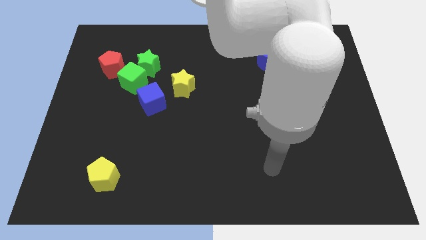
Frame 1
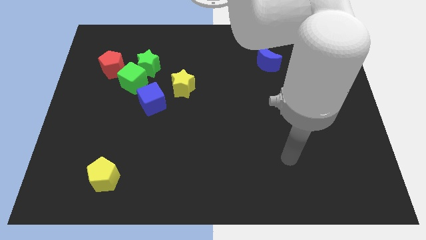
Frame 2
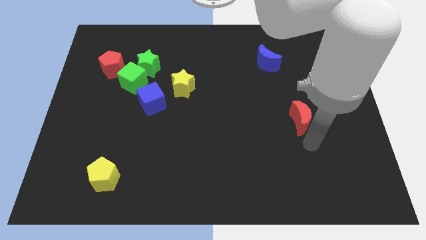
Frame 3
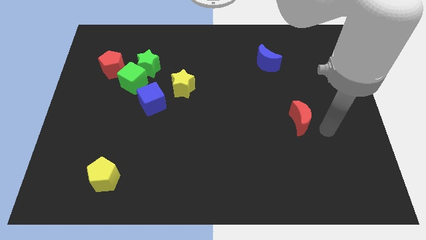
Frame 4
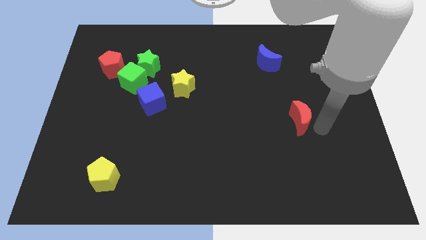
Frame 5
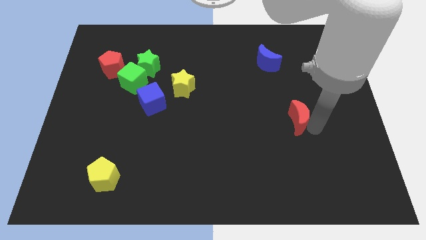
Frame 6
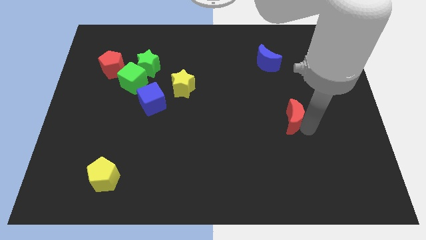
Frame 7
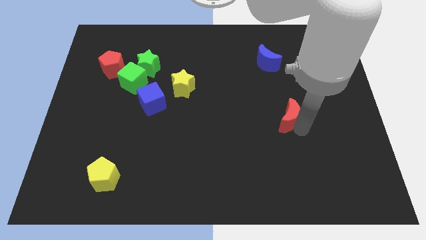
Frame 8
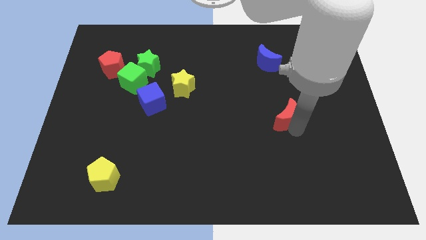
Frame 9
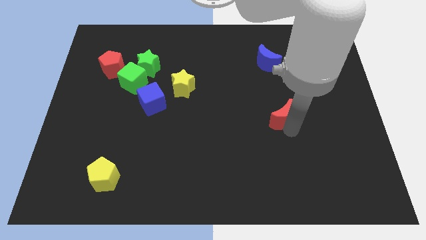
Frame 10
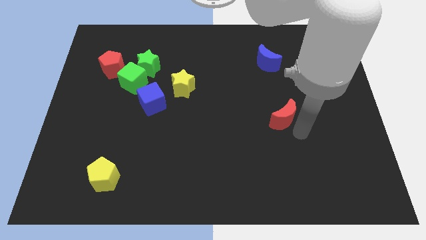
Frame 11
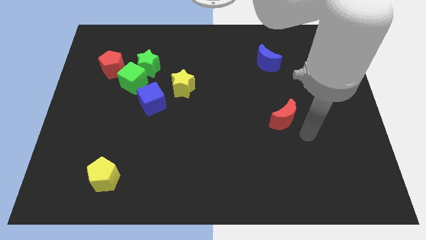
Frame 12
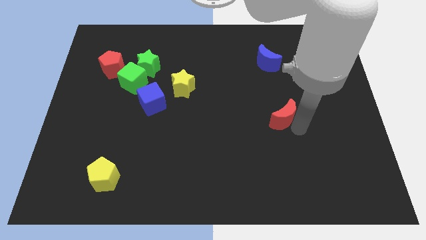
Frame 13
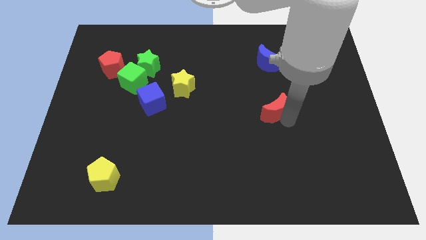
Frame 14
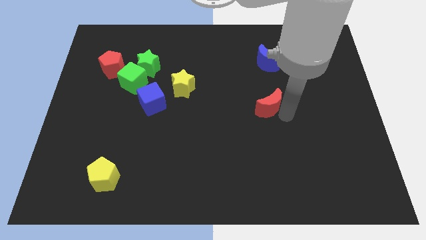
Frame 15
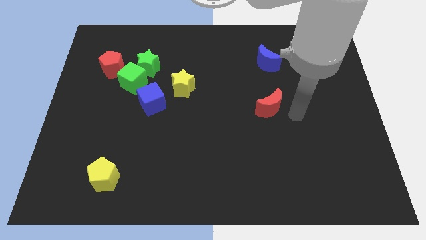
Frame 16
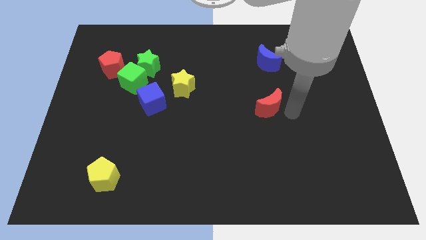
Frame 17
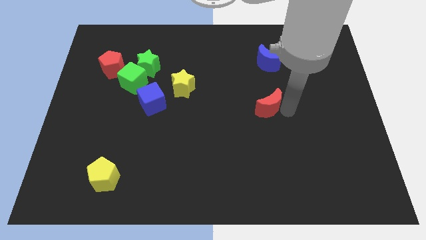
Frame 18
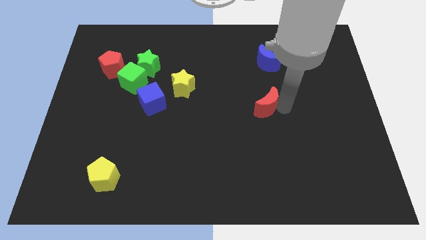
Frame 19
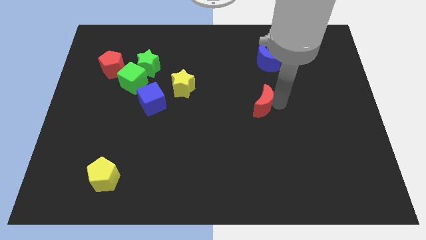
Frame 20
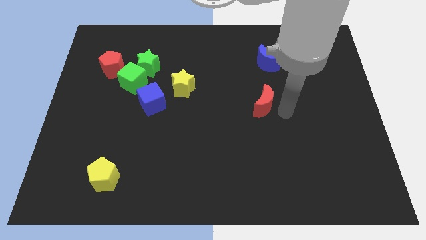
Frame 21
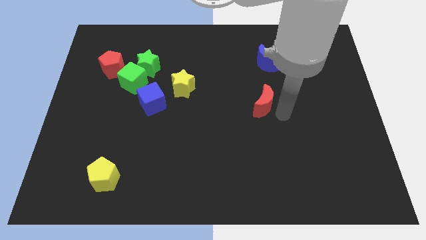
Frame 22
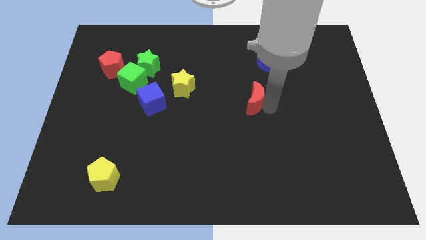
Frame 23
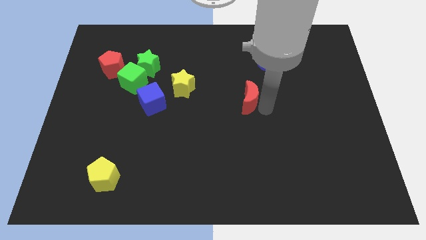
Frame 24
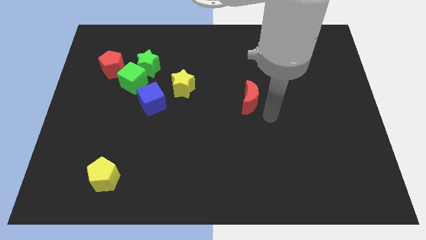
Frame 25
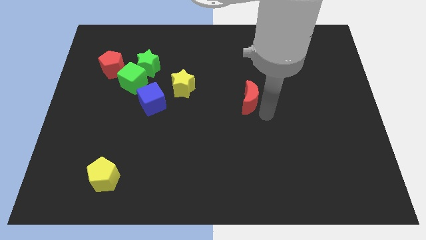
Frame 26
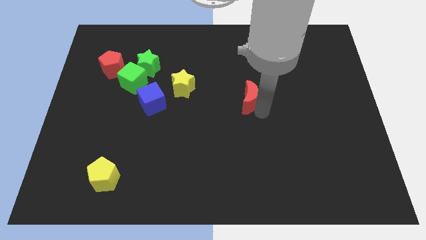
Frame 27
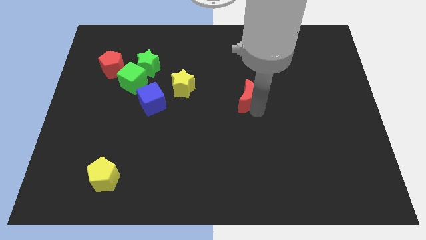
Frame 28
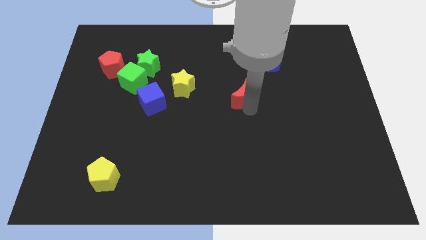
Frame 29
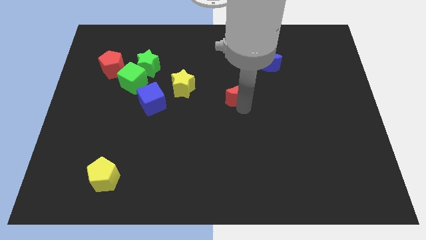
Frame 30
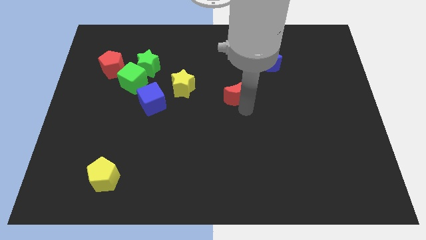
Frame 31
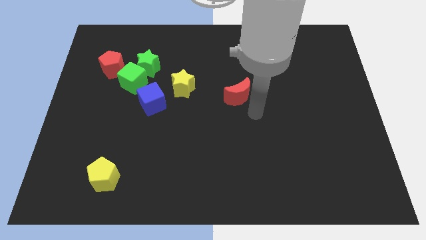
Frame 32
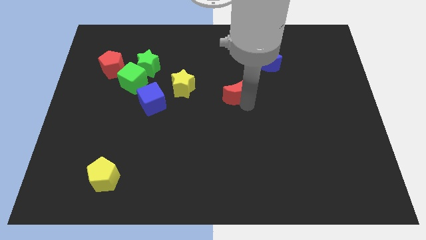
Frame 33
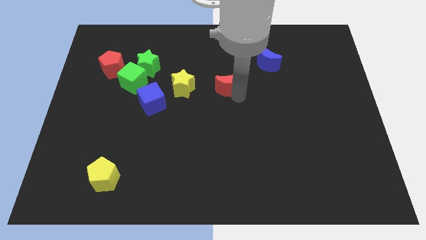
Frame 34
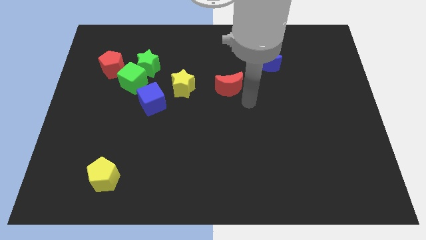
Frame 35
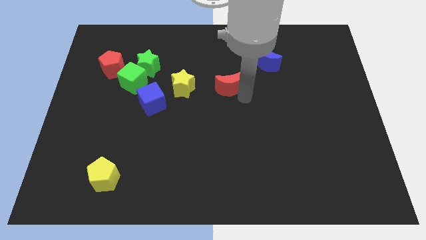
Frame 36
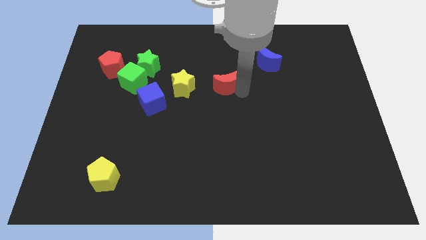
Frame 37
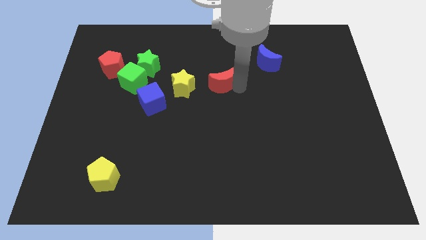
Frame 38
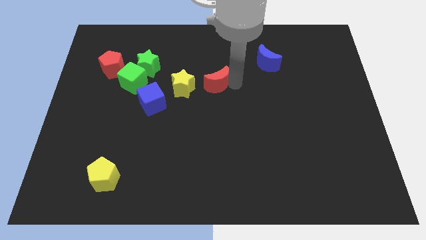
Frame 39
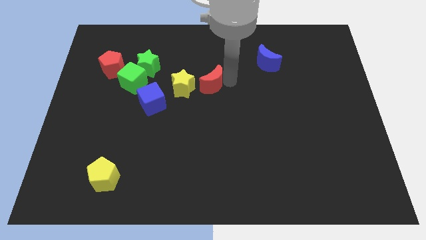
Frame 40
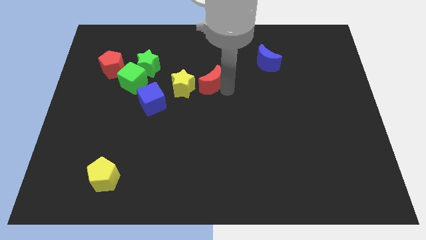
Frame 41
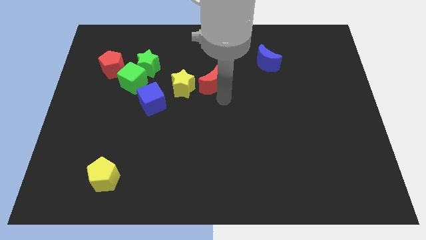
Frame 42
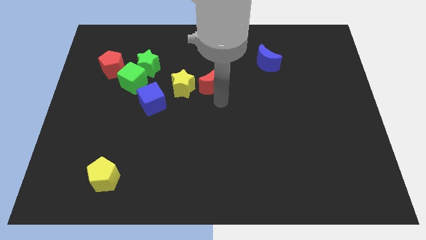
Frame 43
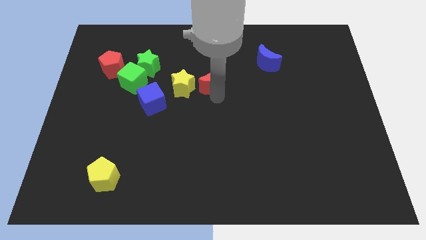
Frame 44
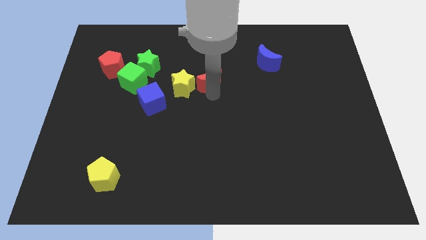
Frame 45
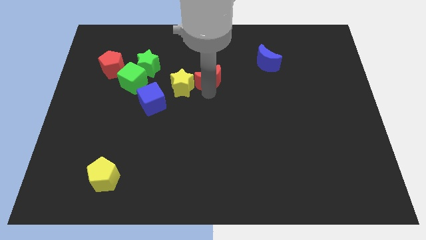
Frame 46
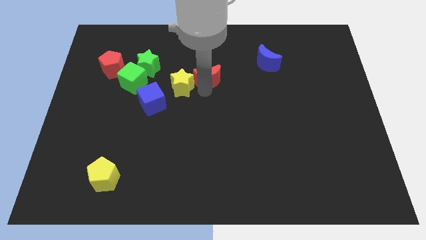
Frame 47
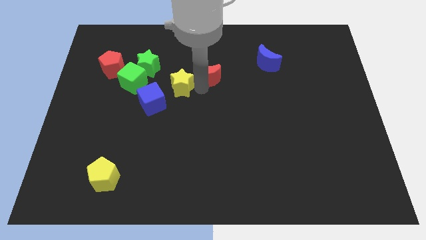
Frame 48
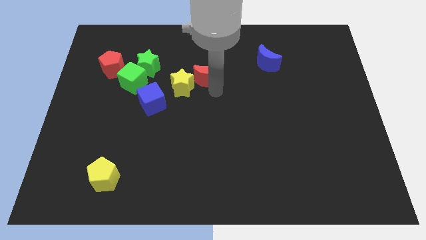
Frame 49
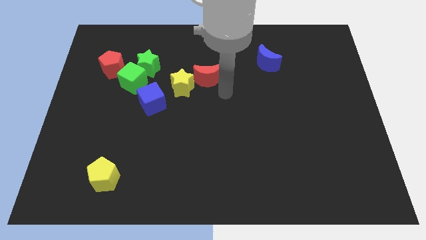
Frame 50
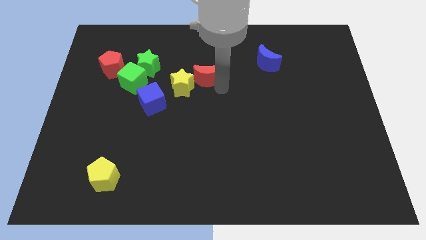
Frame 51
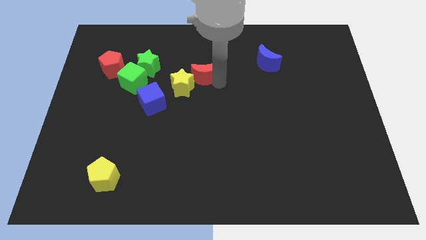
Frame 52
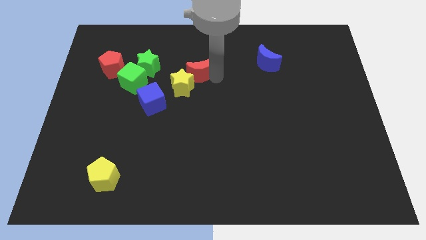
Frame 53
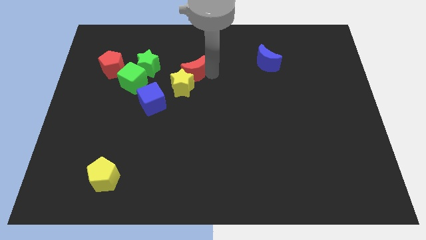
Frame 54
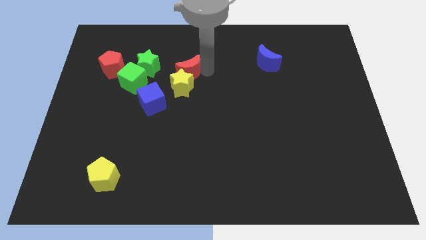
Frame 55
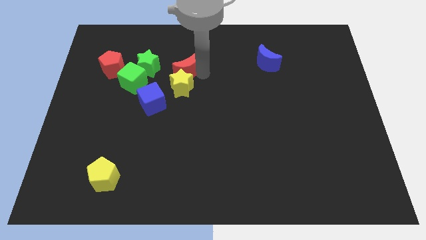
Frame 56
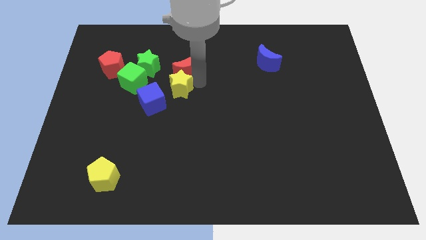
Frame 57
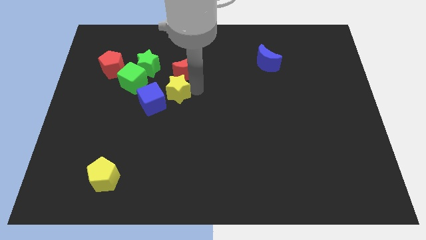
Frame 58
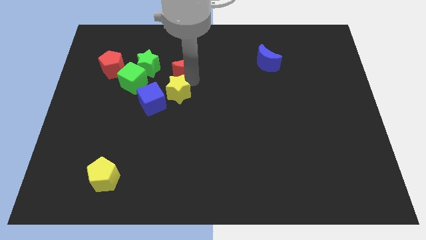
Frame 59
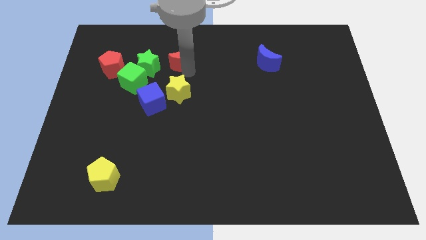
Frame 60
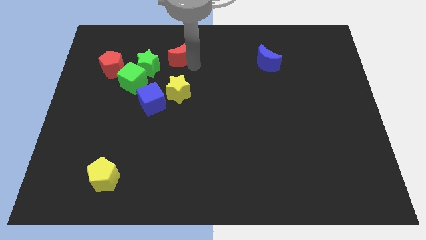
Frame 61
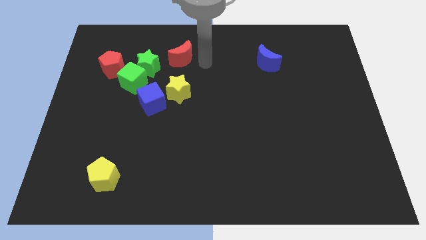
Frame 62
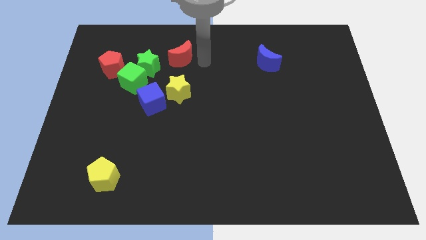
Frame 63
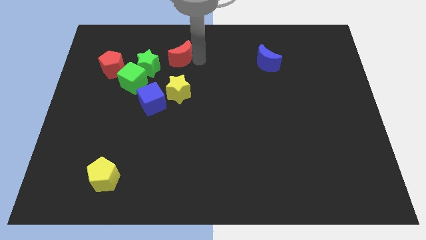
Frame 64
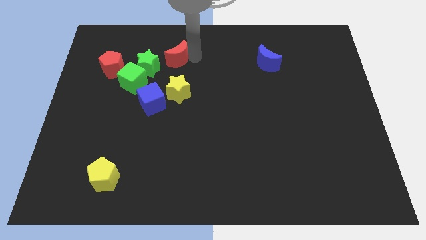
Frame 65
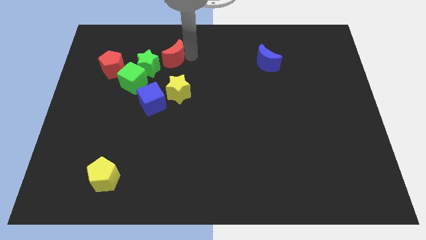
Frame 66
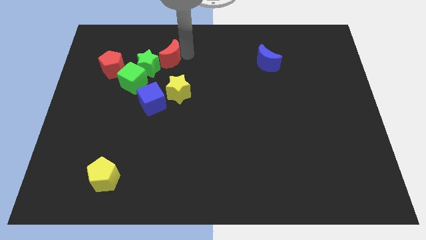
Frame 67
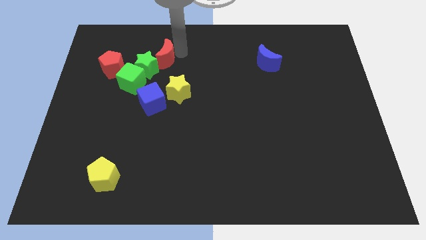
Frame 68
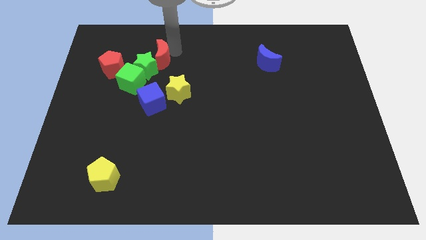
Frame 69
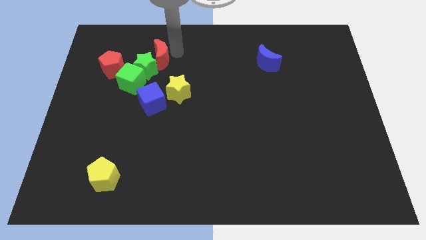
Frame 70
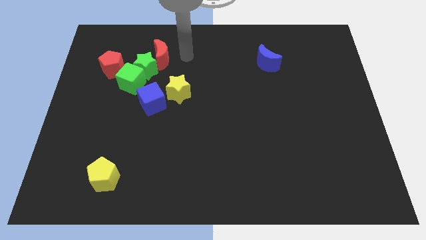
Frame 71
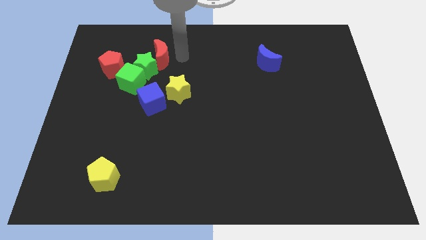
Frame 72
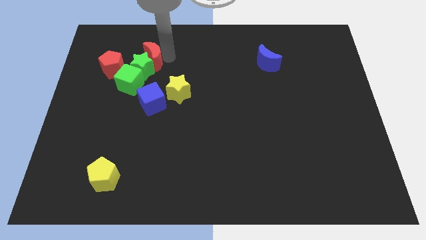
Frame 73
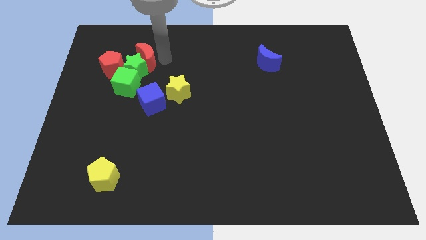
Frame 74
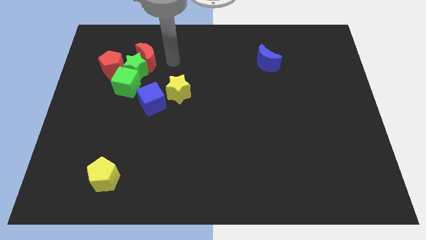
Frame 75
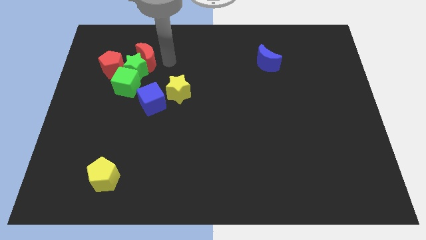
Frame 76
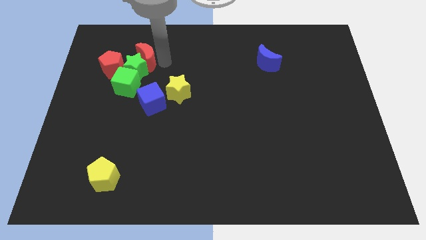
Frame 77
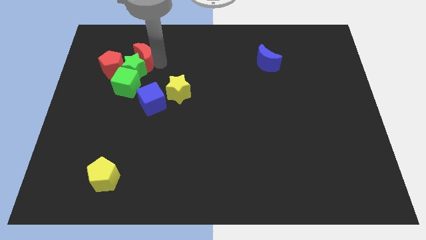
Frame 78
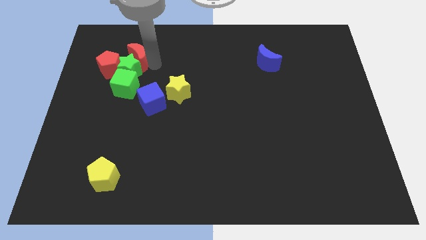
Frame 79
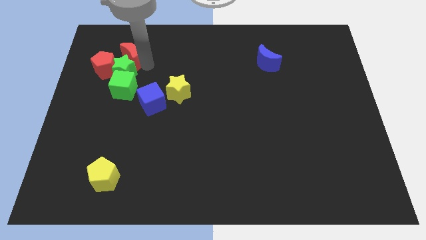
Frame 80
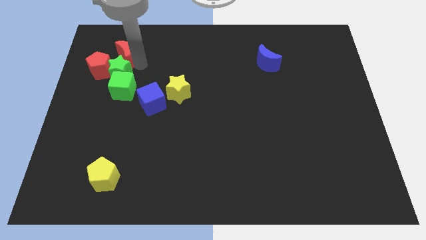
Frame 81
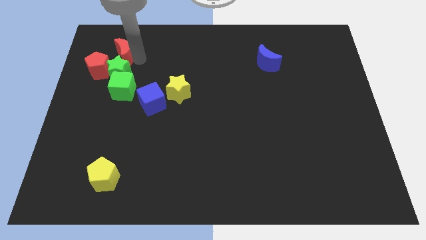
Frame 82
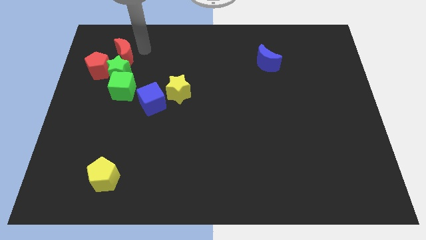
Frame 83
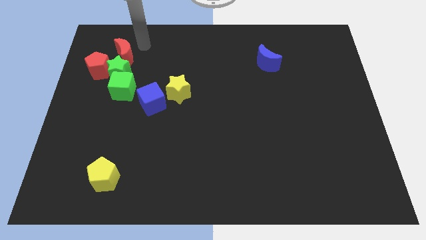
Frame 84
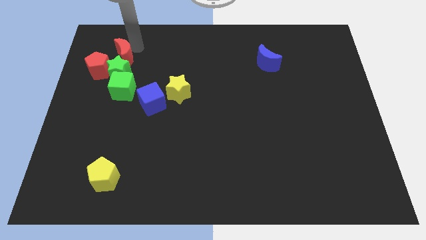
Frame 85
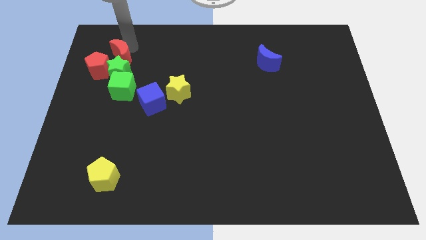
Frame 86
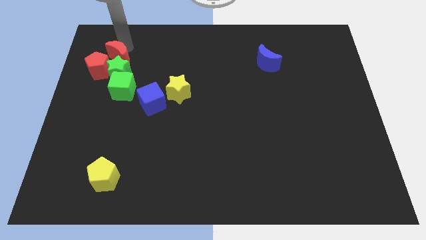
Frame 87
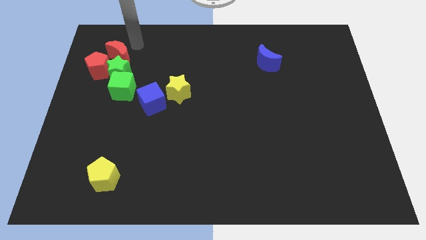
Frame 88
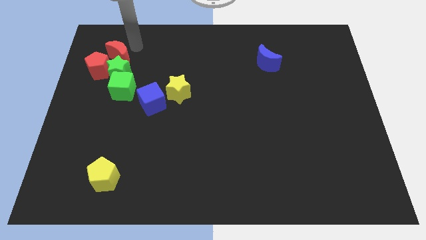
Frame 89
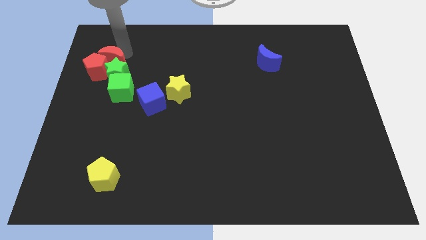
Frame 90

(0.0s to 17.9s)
put the red moon next to the red pentagon
